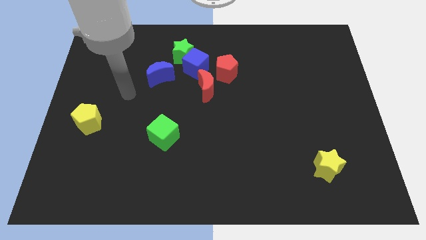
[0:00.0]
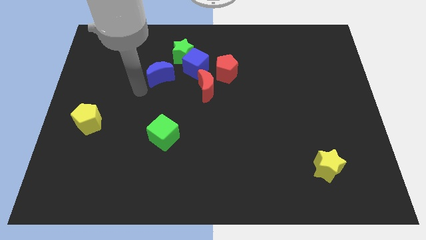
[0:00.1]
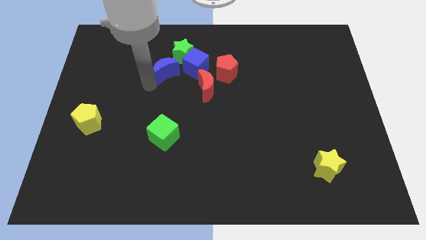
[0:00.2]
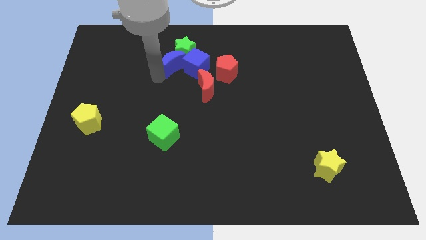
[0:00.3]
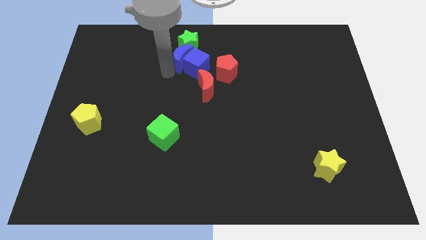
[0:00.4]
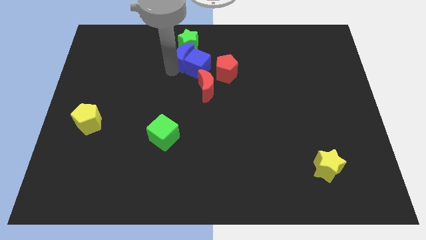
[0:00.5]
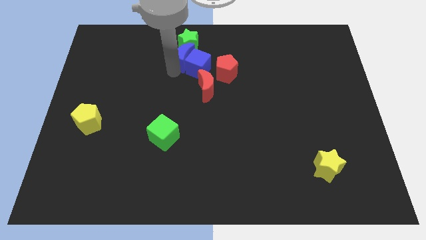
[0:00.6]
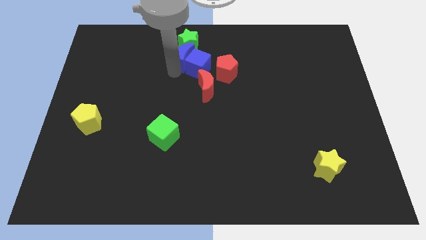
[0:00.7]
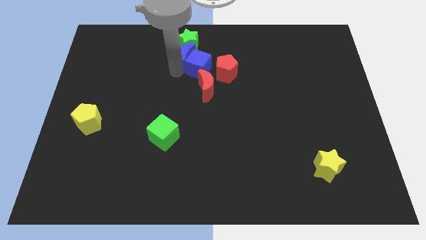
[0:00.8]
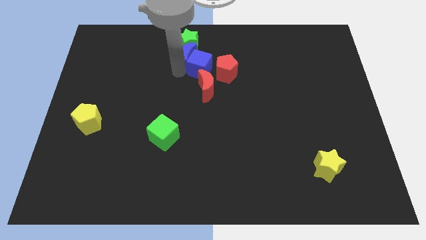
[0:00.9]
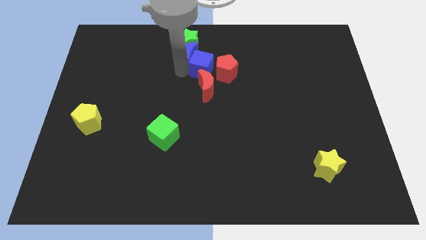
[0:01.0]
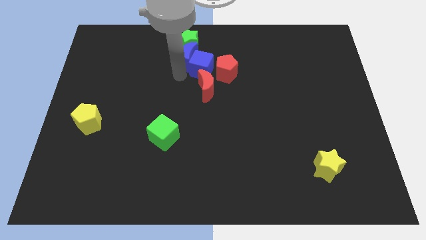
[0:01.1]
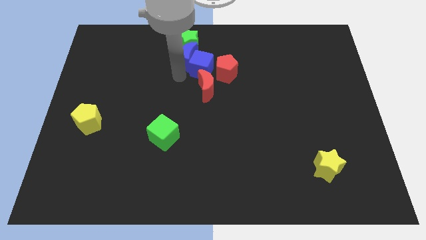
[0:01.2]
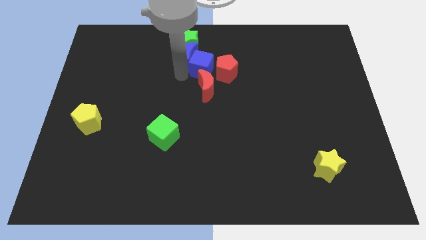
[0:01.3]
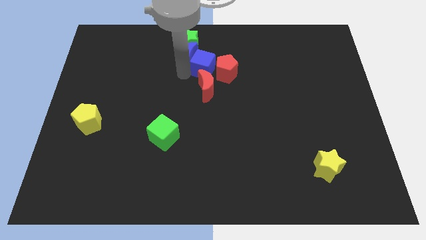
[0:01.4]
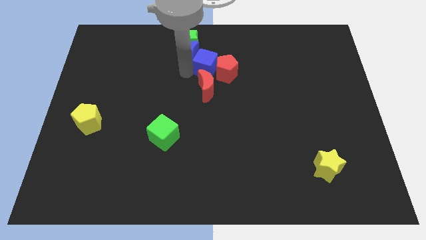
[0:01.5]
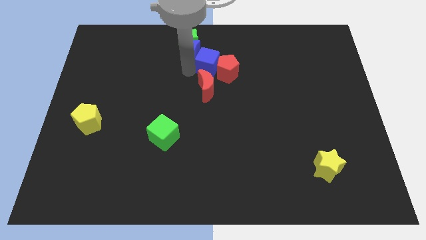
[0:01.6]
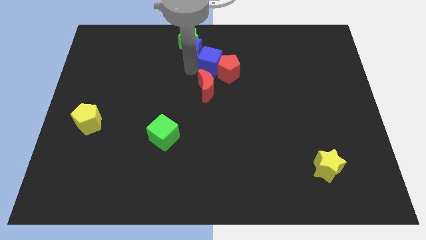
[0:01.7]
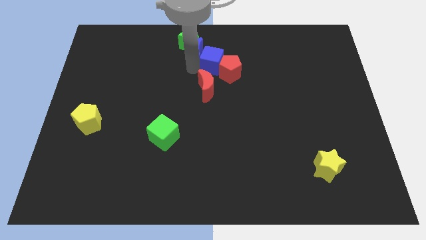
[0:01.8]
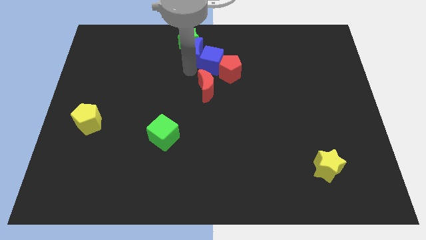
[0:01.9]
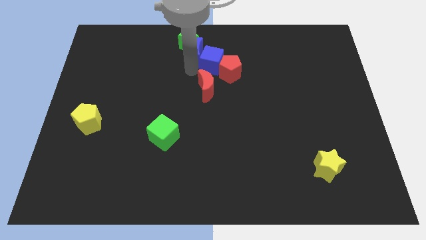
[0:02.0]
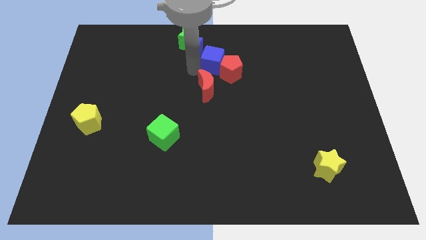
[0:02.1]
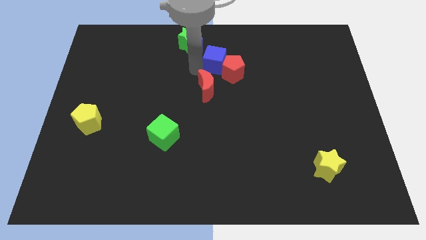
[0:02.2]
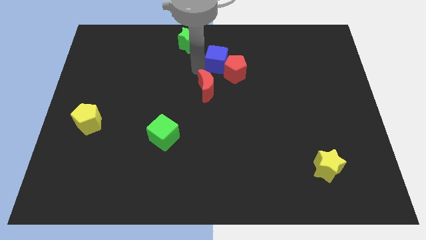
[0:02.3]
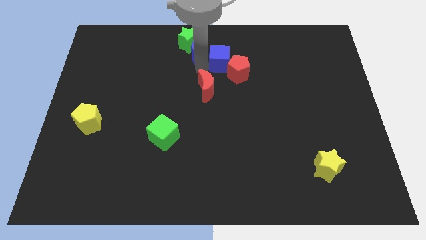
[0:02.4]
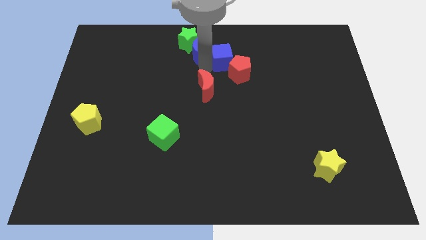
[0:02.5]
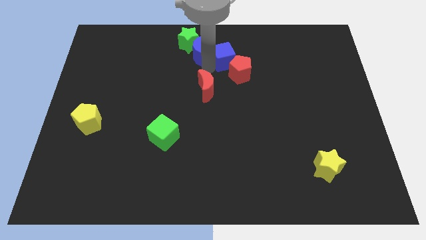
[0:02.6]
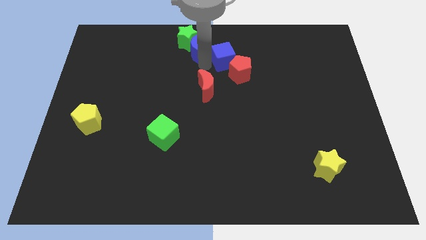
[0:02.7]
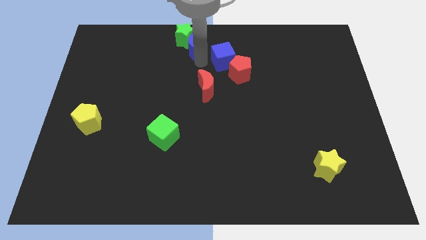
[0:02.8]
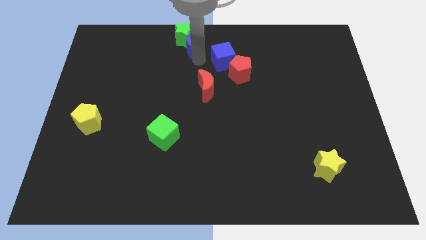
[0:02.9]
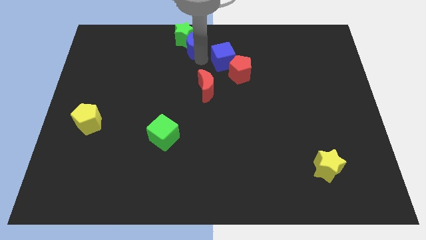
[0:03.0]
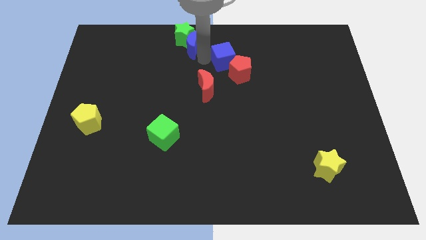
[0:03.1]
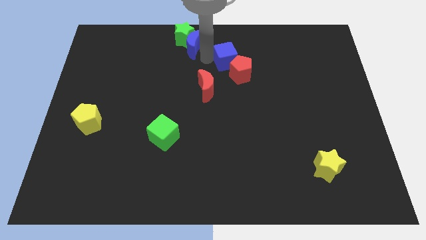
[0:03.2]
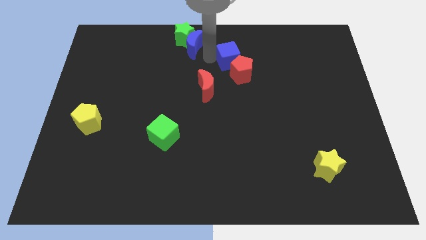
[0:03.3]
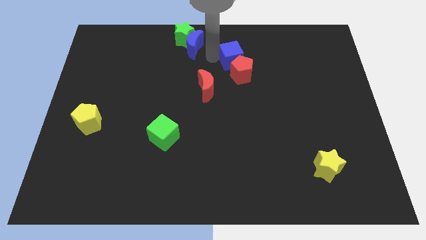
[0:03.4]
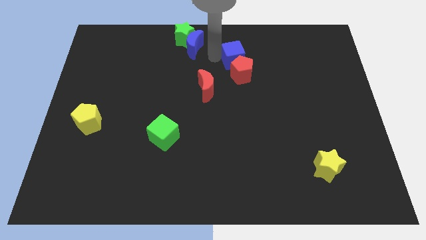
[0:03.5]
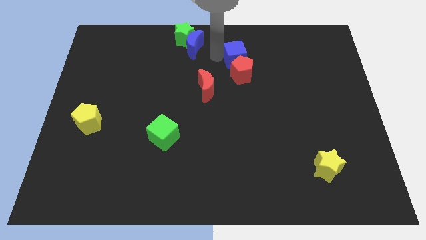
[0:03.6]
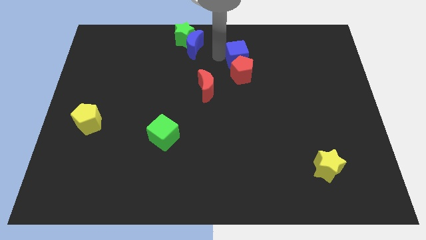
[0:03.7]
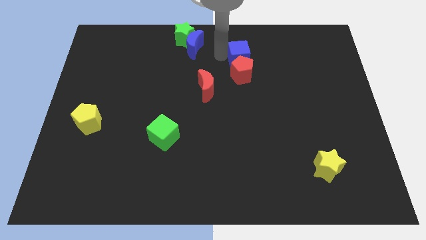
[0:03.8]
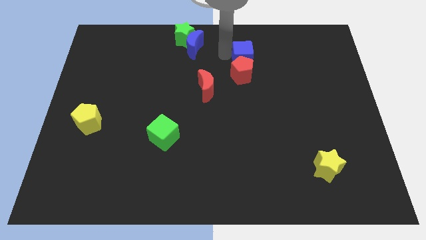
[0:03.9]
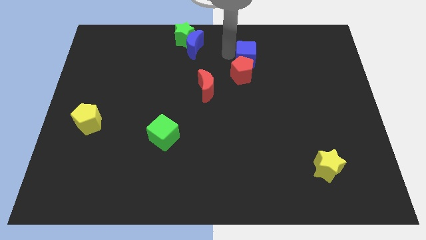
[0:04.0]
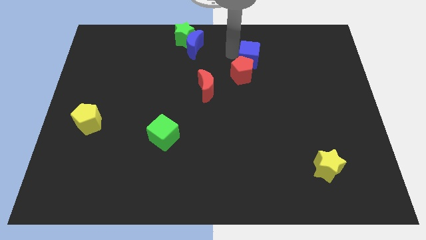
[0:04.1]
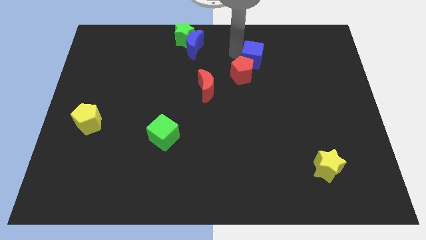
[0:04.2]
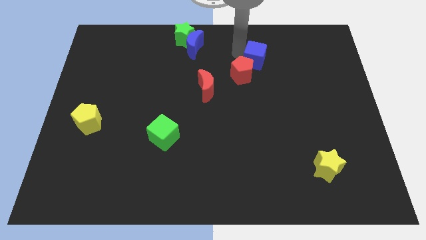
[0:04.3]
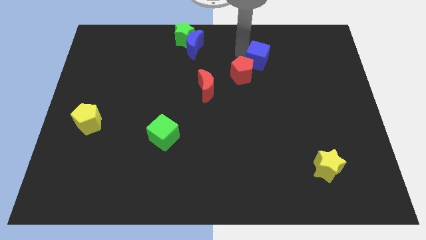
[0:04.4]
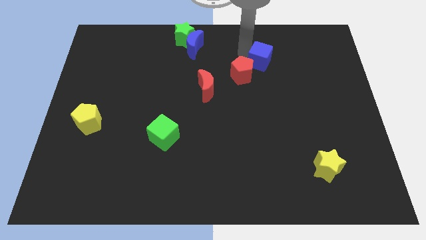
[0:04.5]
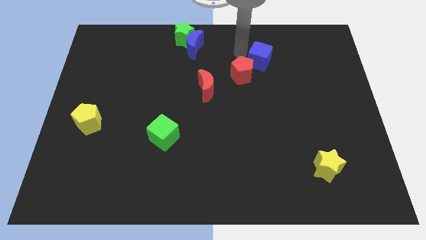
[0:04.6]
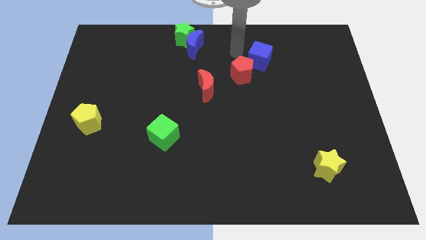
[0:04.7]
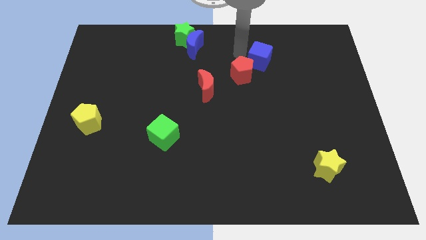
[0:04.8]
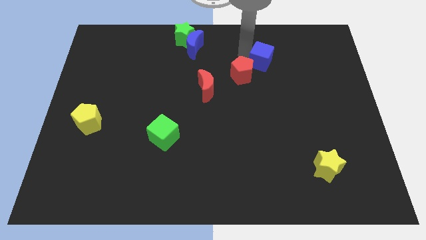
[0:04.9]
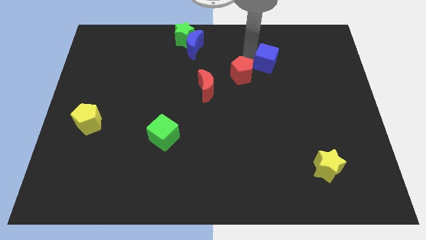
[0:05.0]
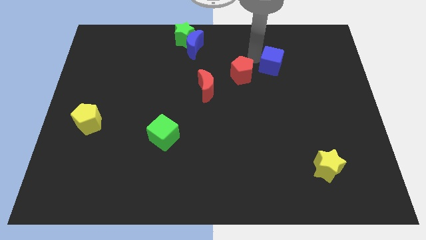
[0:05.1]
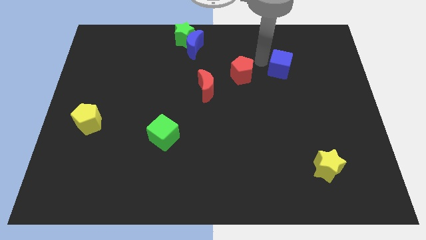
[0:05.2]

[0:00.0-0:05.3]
slide the blue cube right

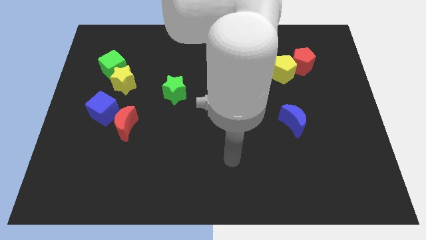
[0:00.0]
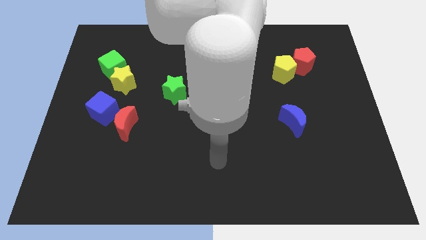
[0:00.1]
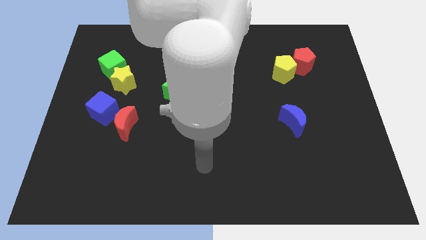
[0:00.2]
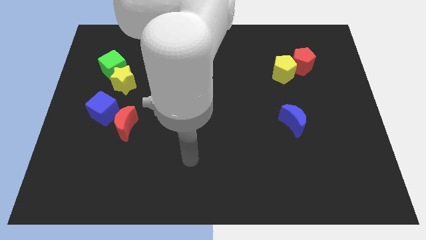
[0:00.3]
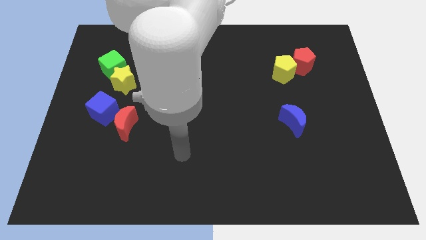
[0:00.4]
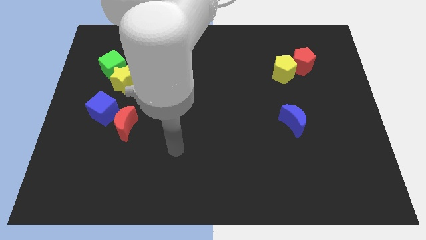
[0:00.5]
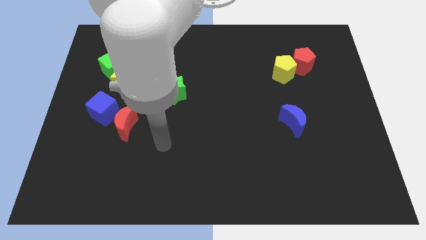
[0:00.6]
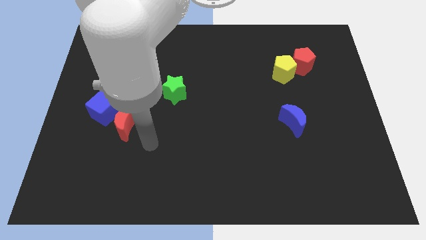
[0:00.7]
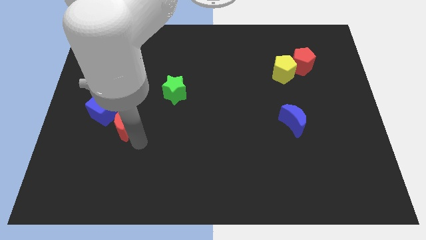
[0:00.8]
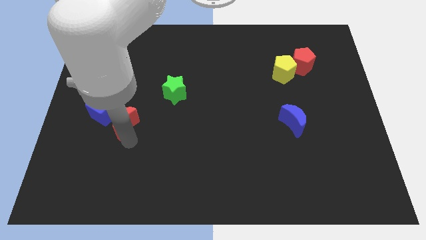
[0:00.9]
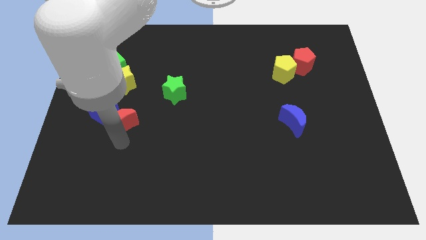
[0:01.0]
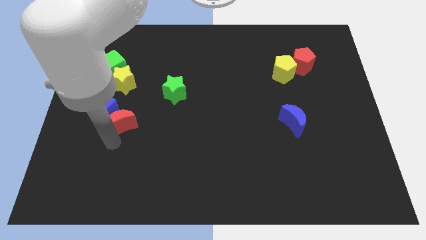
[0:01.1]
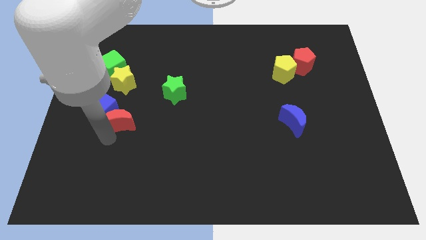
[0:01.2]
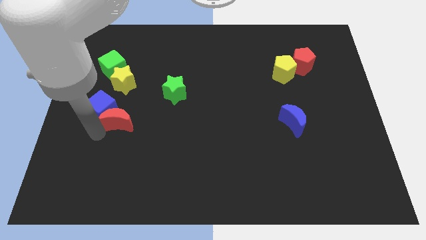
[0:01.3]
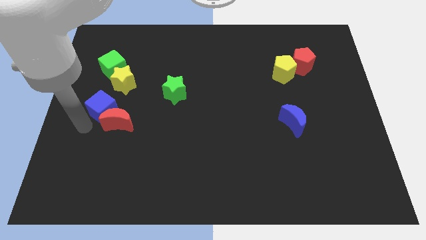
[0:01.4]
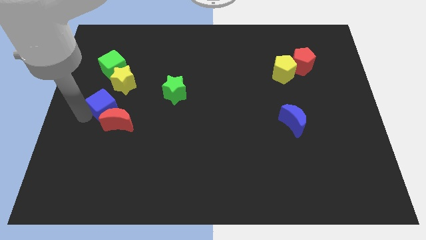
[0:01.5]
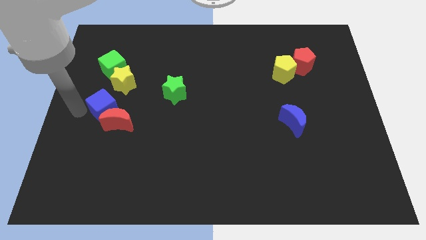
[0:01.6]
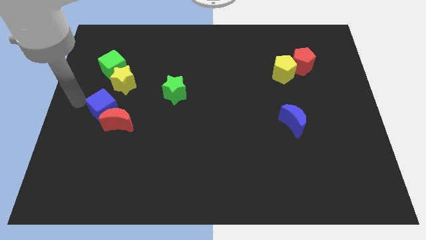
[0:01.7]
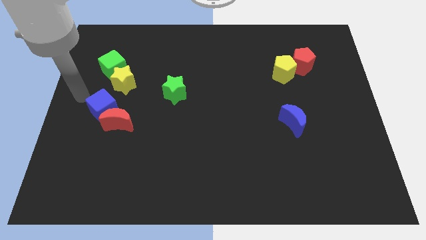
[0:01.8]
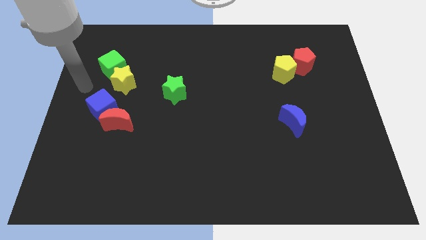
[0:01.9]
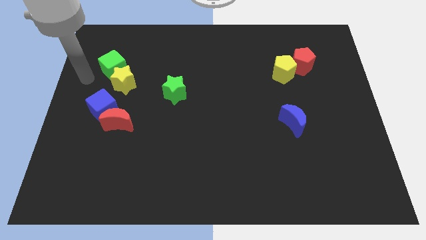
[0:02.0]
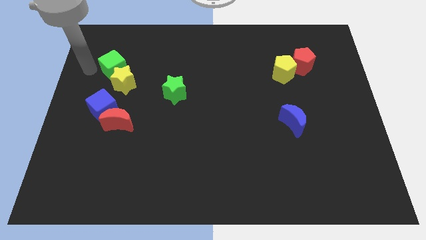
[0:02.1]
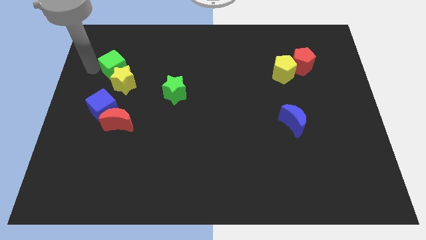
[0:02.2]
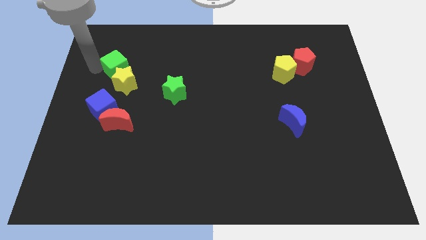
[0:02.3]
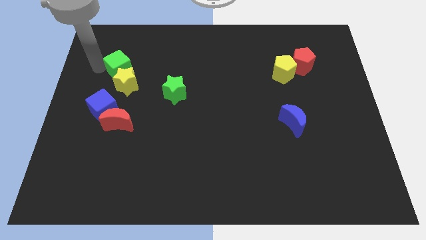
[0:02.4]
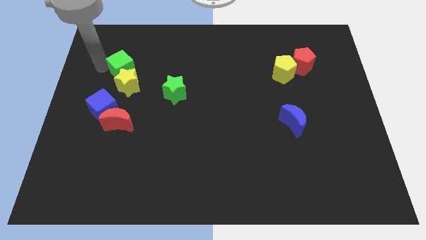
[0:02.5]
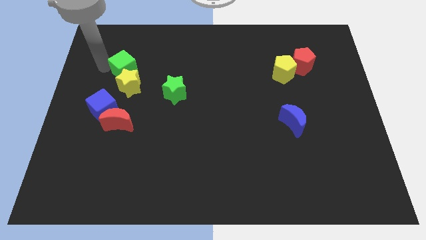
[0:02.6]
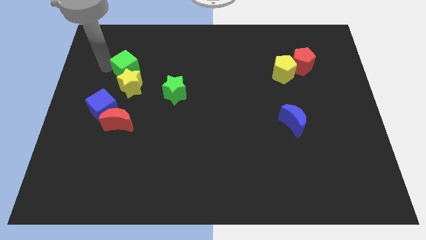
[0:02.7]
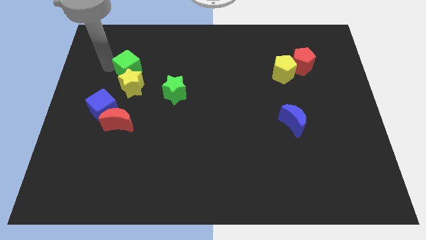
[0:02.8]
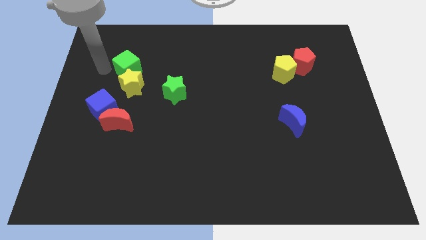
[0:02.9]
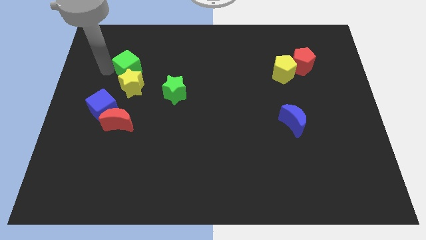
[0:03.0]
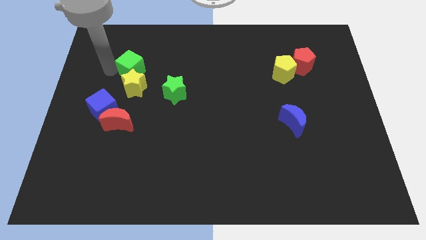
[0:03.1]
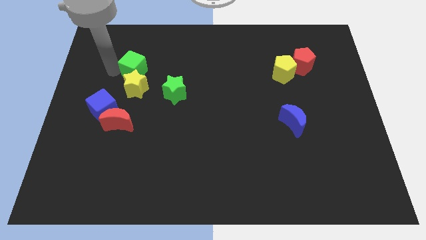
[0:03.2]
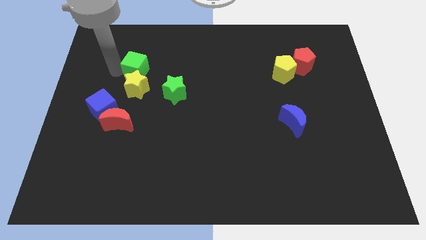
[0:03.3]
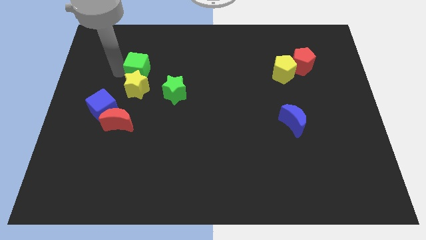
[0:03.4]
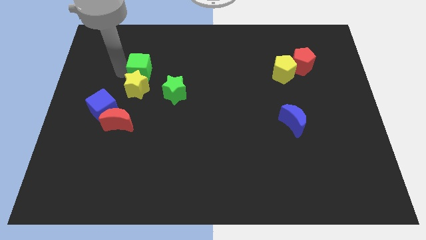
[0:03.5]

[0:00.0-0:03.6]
move the green cube a bit to the right
